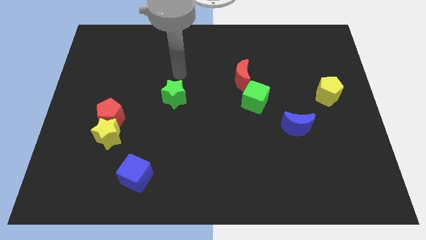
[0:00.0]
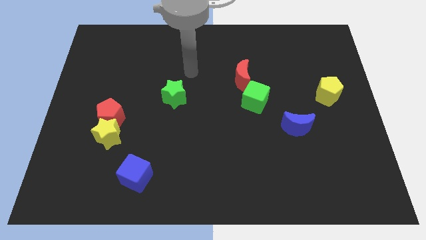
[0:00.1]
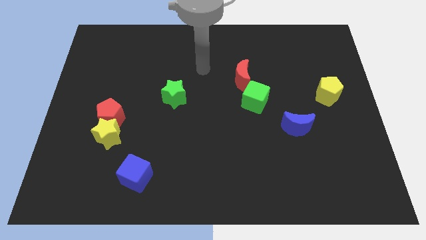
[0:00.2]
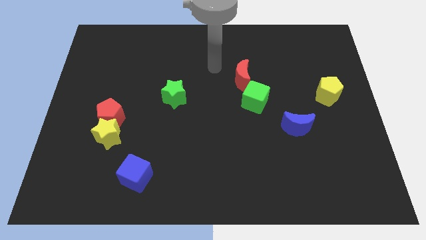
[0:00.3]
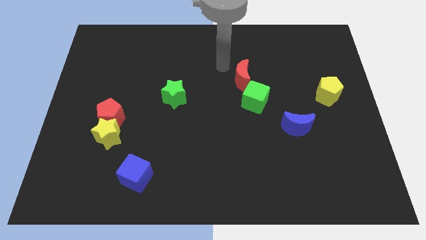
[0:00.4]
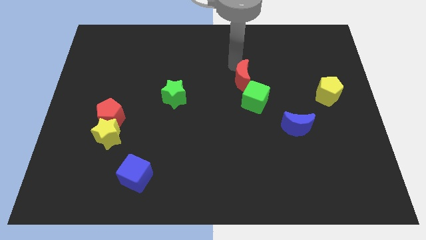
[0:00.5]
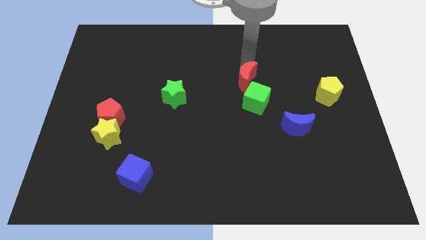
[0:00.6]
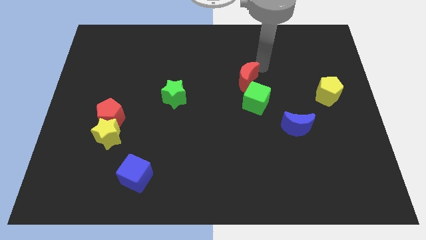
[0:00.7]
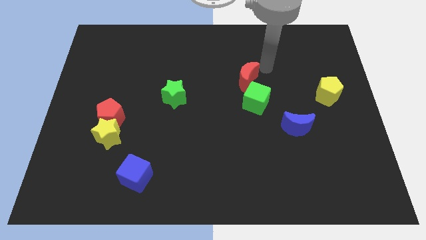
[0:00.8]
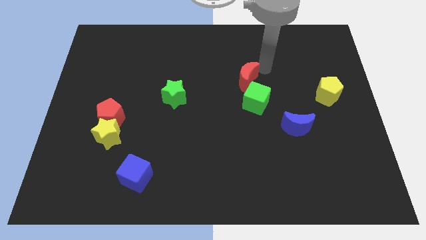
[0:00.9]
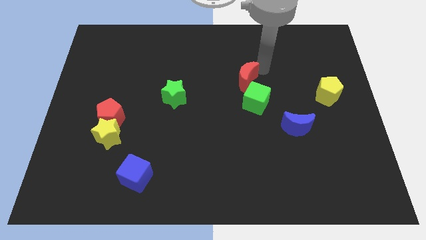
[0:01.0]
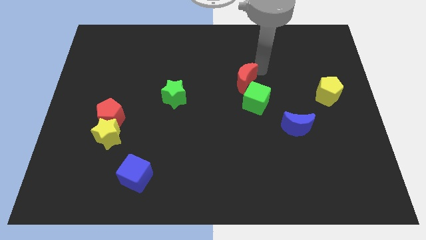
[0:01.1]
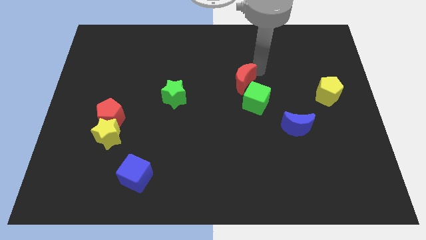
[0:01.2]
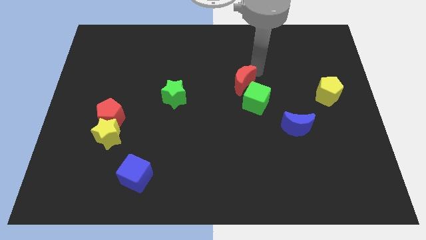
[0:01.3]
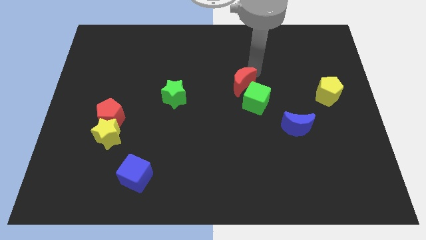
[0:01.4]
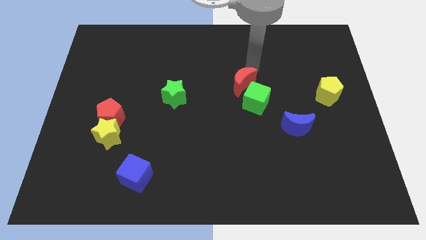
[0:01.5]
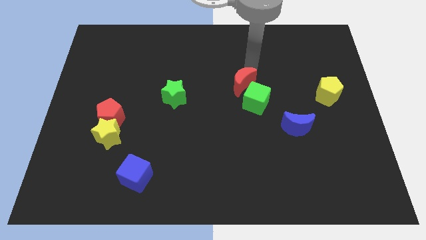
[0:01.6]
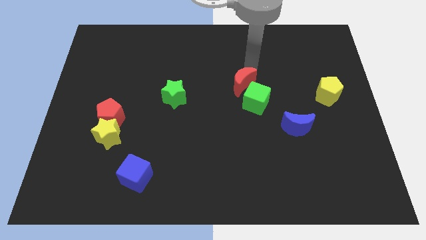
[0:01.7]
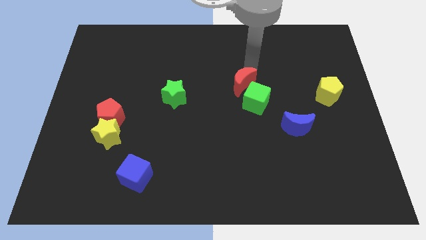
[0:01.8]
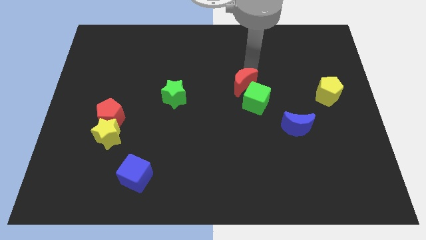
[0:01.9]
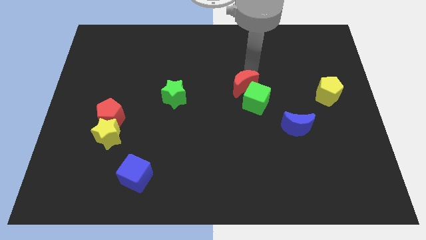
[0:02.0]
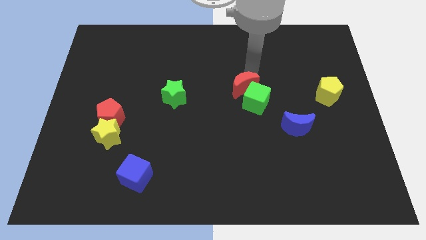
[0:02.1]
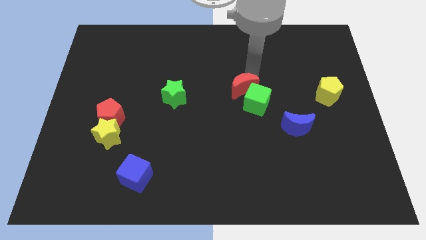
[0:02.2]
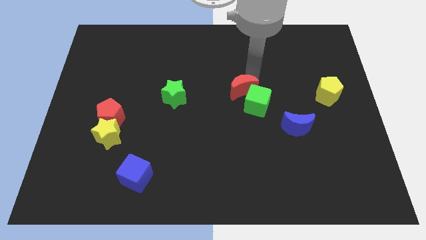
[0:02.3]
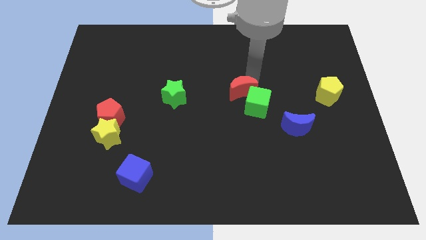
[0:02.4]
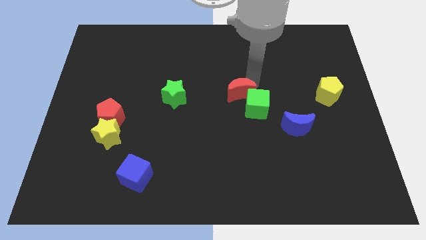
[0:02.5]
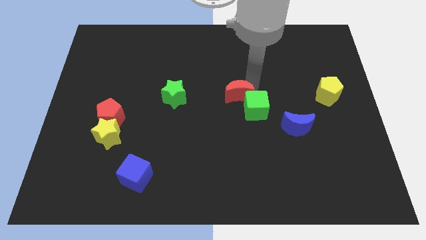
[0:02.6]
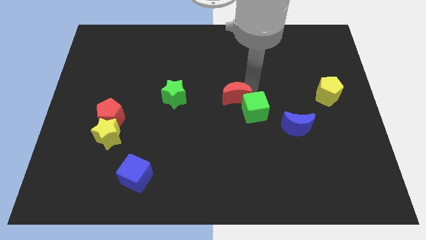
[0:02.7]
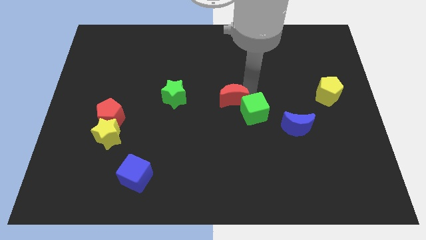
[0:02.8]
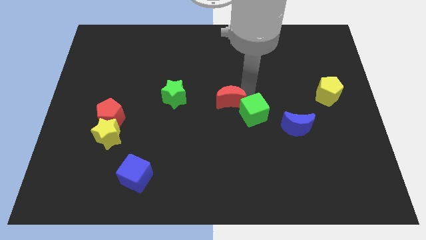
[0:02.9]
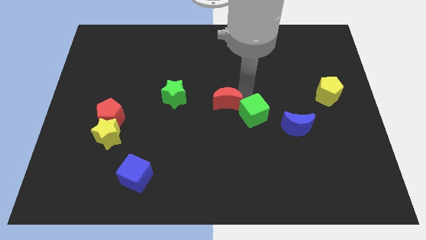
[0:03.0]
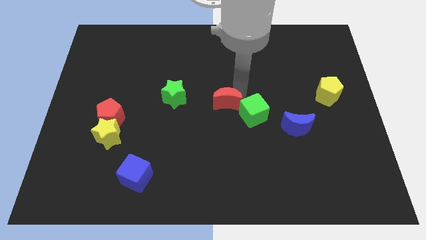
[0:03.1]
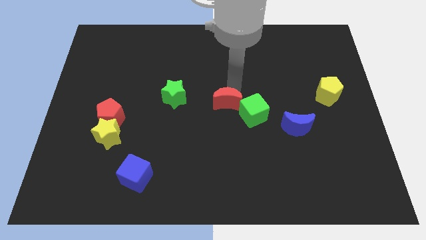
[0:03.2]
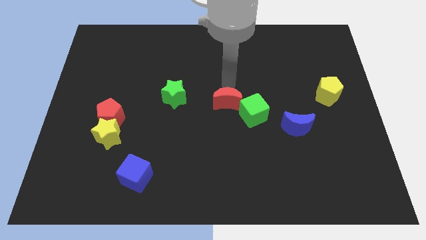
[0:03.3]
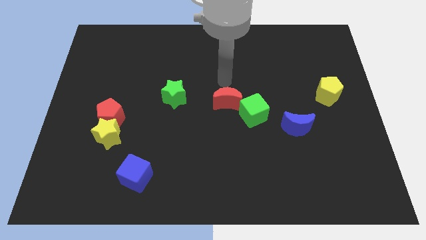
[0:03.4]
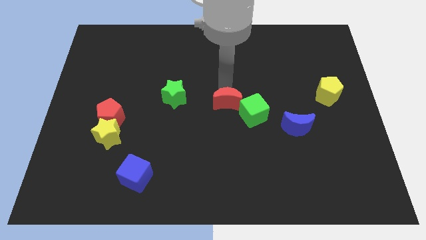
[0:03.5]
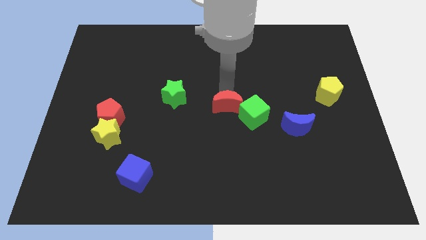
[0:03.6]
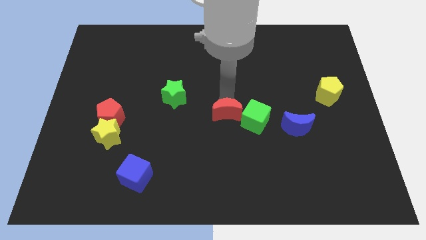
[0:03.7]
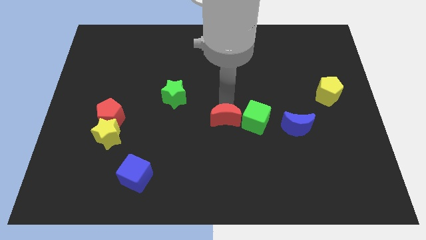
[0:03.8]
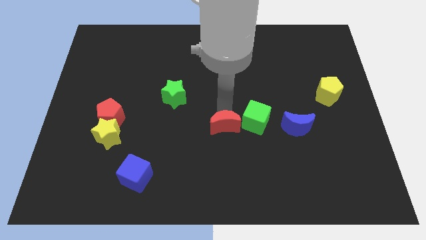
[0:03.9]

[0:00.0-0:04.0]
put the red moon to the bottom left of the green cube

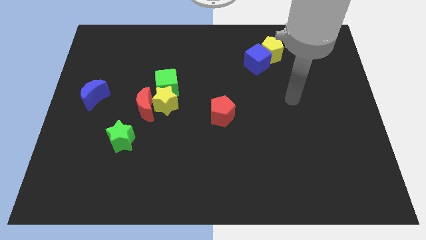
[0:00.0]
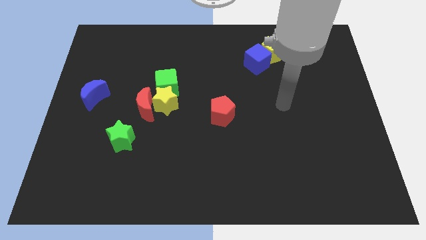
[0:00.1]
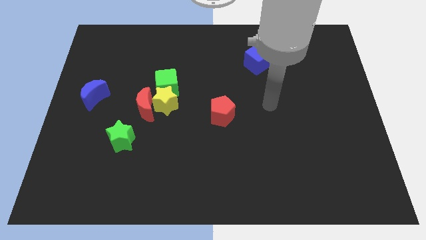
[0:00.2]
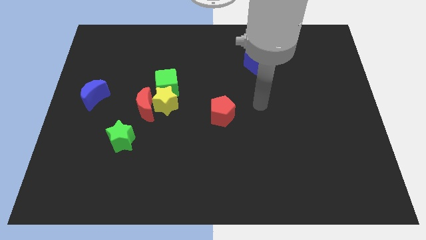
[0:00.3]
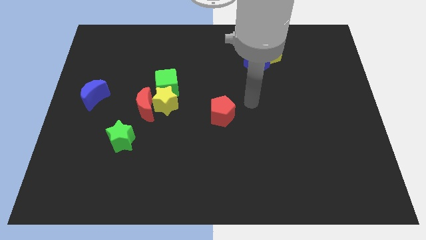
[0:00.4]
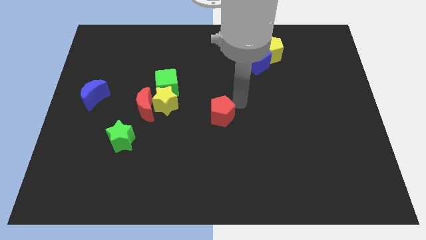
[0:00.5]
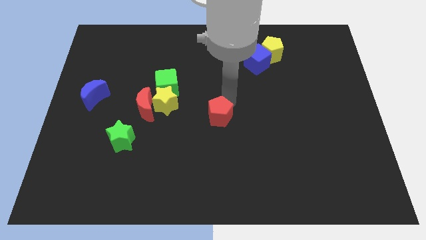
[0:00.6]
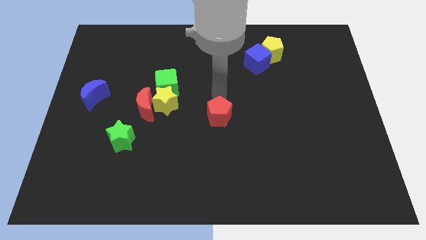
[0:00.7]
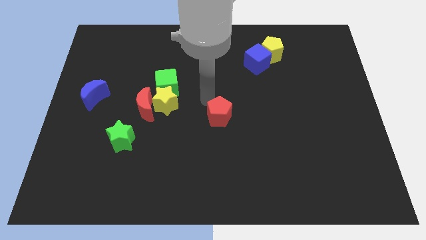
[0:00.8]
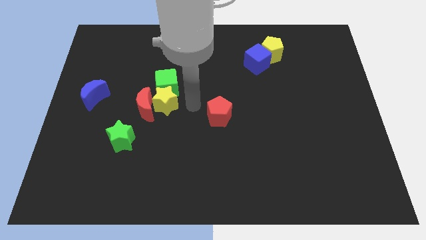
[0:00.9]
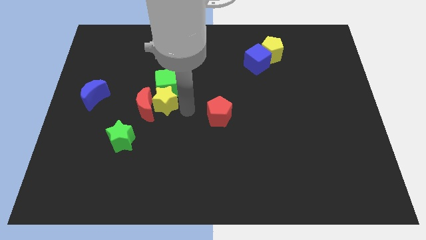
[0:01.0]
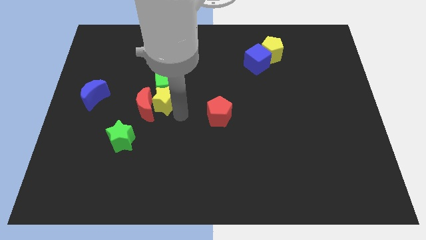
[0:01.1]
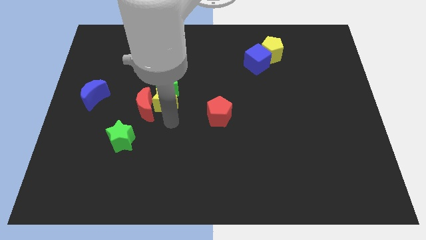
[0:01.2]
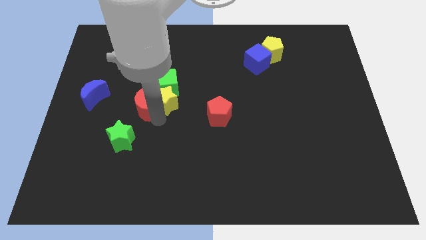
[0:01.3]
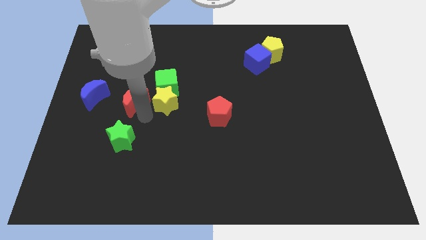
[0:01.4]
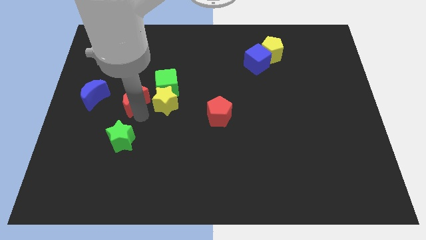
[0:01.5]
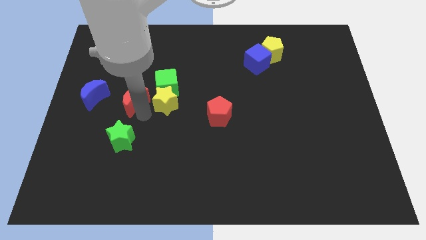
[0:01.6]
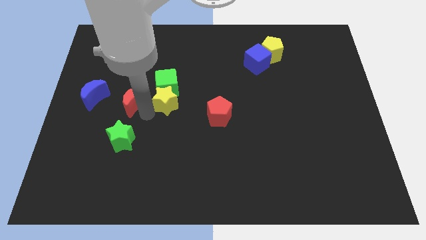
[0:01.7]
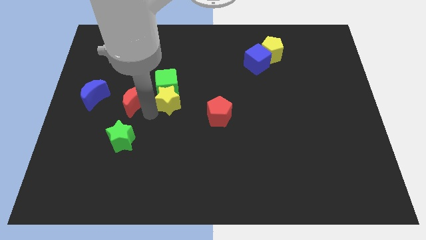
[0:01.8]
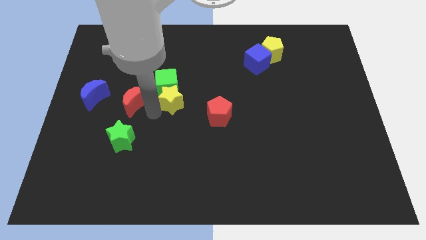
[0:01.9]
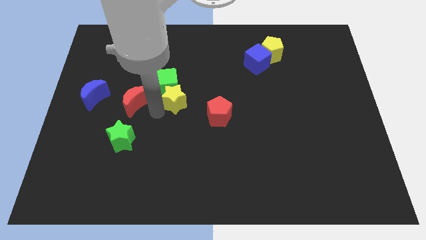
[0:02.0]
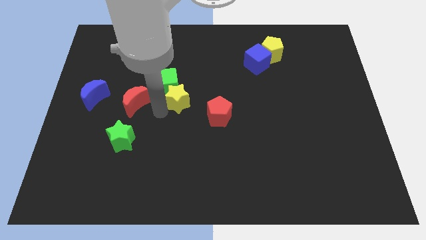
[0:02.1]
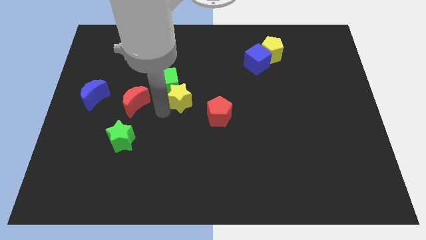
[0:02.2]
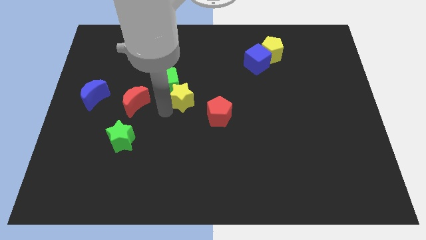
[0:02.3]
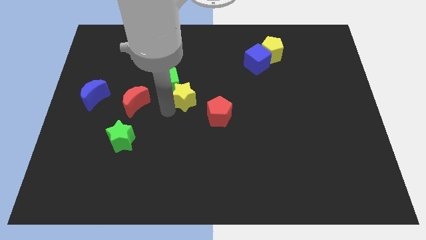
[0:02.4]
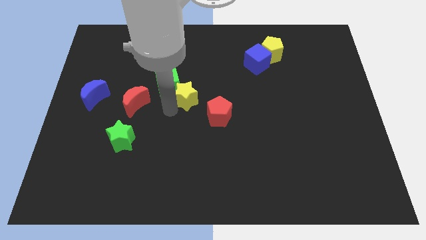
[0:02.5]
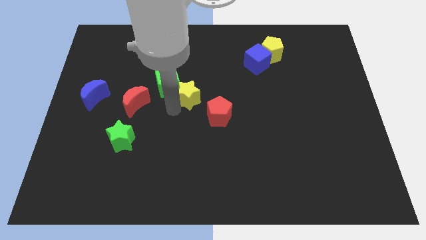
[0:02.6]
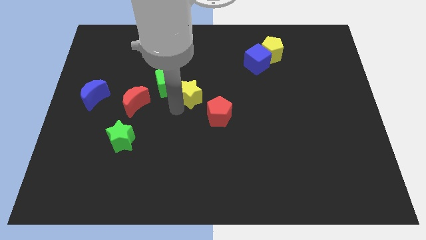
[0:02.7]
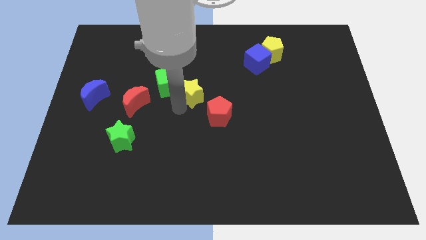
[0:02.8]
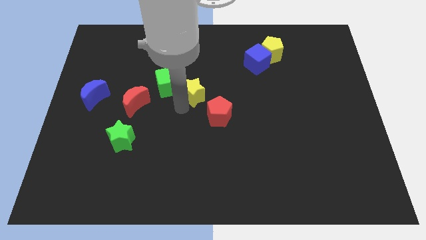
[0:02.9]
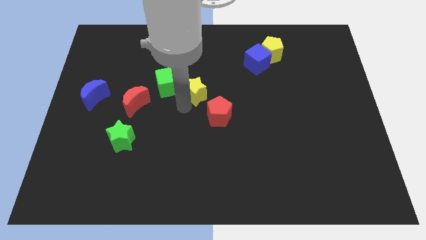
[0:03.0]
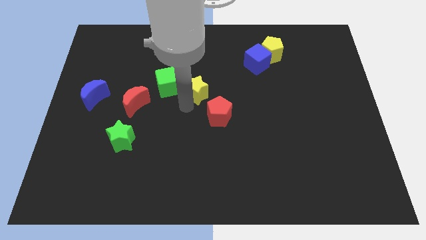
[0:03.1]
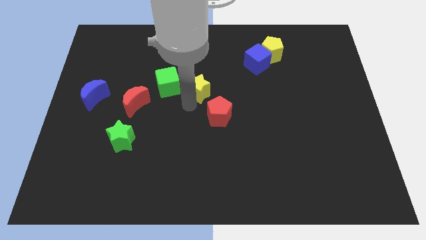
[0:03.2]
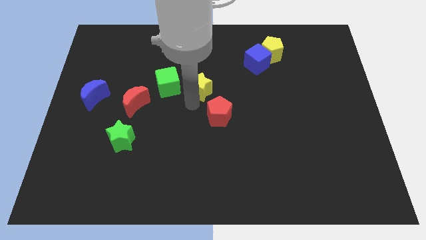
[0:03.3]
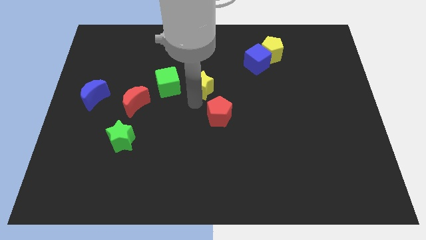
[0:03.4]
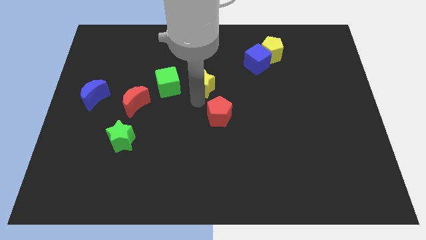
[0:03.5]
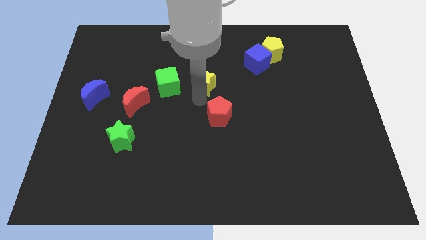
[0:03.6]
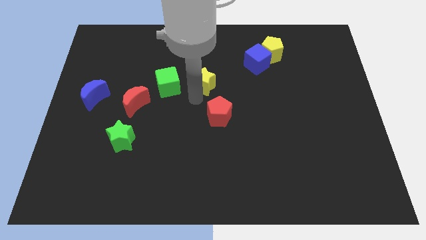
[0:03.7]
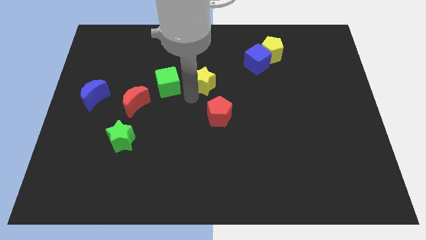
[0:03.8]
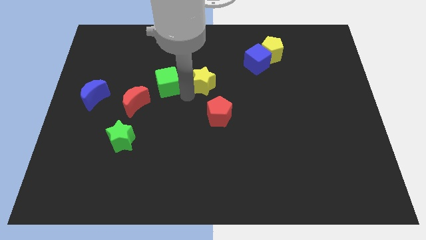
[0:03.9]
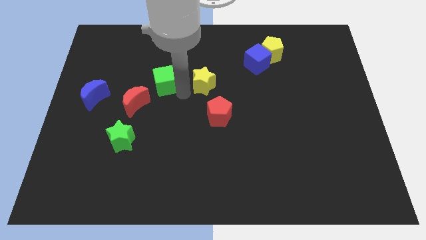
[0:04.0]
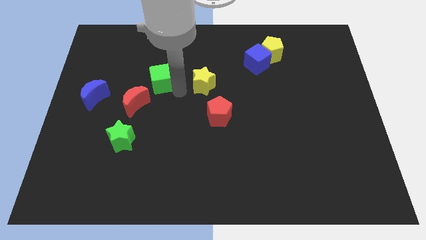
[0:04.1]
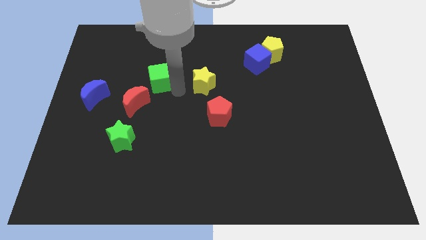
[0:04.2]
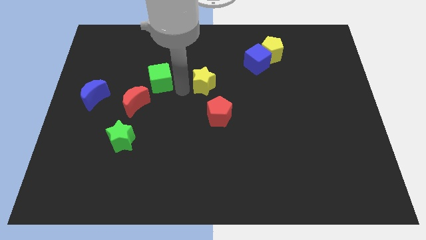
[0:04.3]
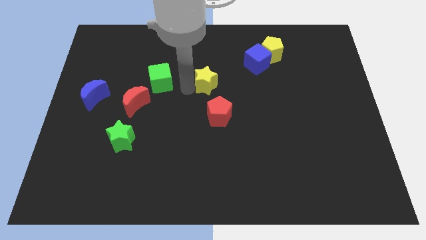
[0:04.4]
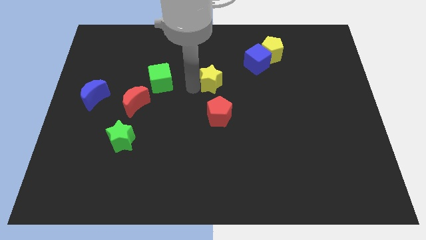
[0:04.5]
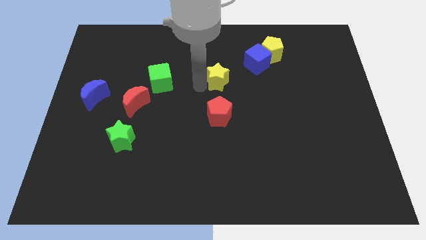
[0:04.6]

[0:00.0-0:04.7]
move the yellow star diagonally down and to the left of the blue cube
